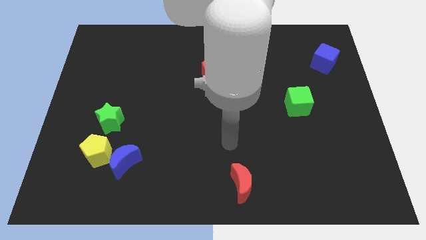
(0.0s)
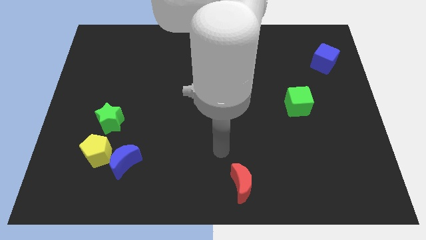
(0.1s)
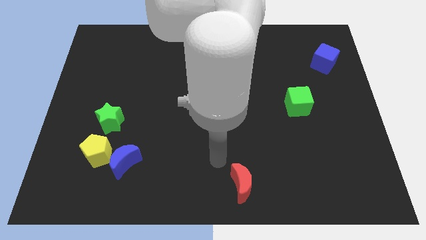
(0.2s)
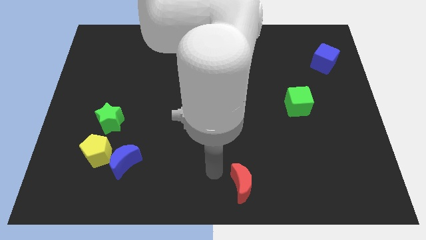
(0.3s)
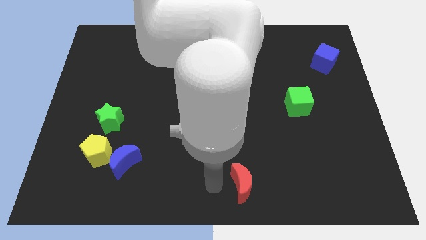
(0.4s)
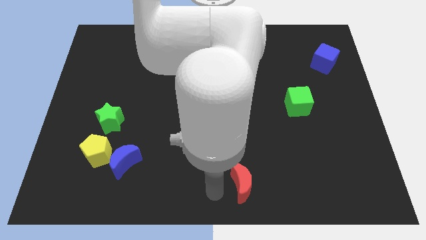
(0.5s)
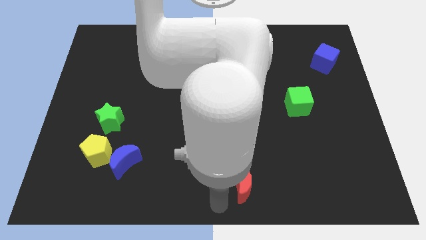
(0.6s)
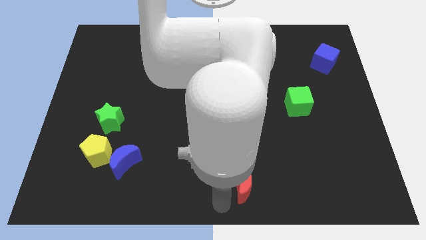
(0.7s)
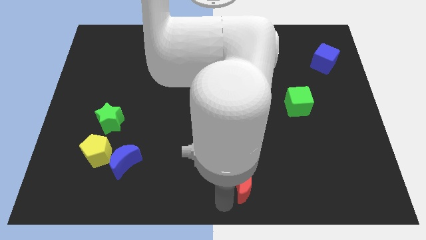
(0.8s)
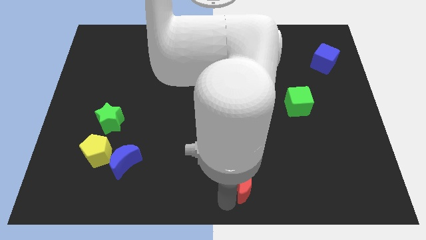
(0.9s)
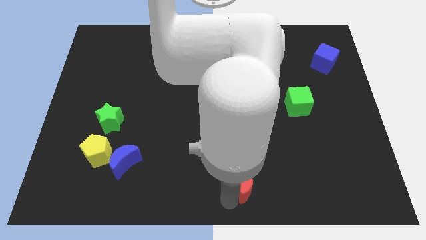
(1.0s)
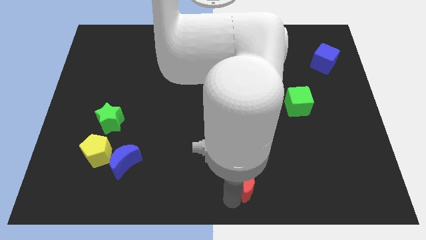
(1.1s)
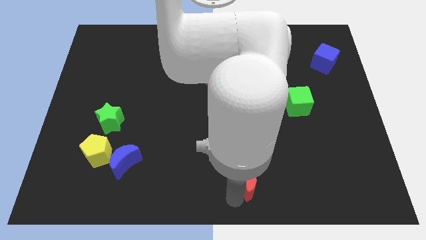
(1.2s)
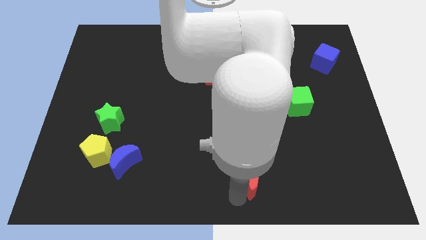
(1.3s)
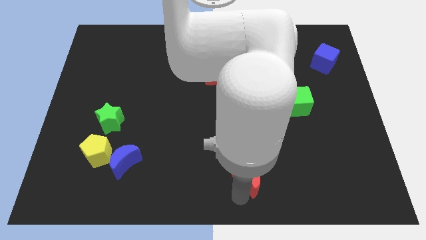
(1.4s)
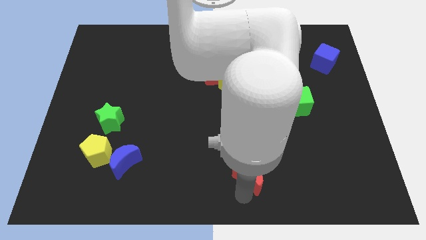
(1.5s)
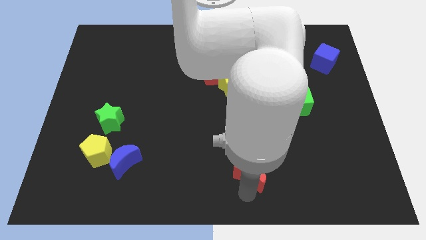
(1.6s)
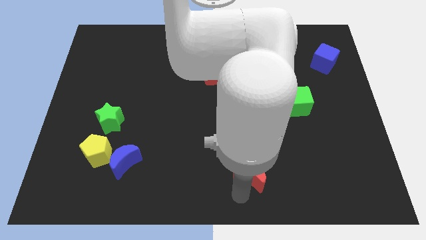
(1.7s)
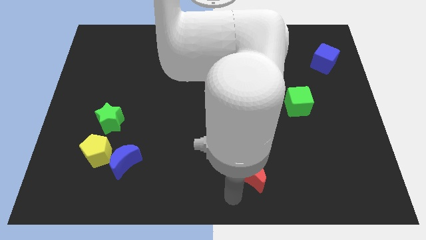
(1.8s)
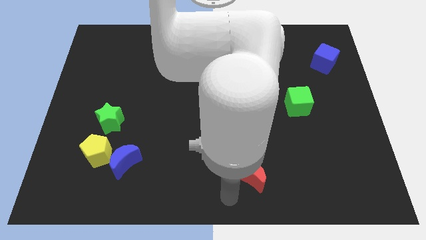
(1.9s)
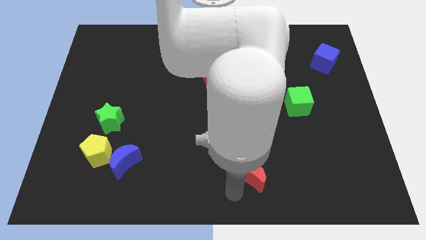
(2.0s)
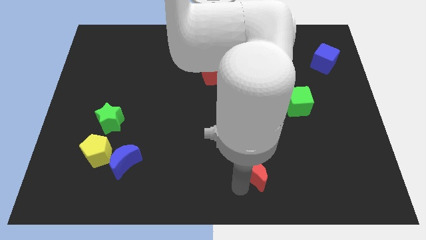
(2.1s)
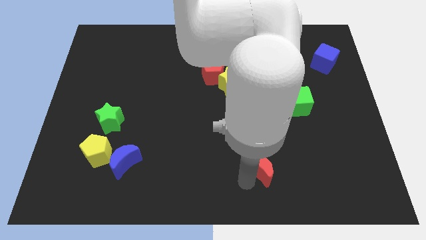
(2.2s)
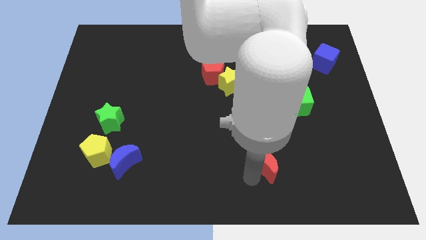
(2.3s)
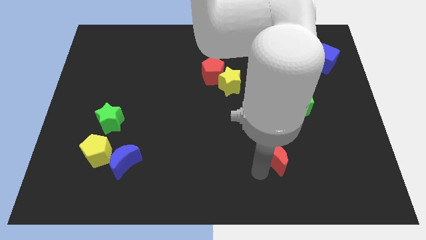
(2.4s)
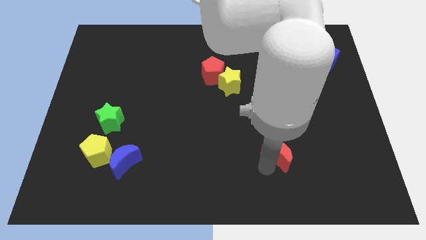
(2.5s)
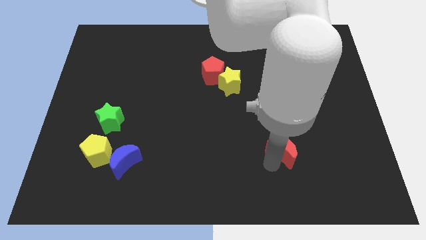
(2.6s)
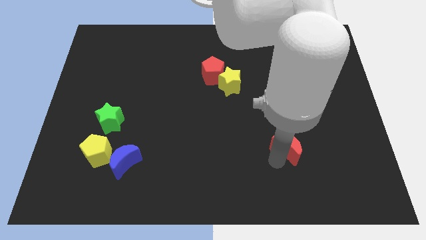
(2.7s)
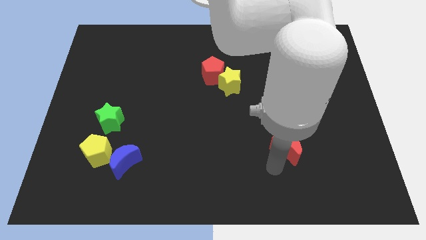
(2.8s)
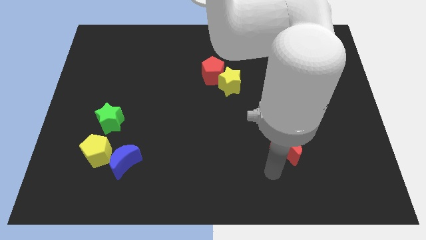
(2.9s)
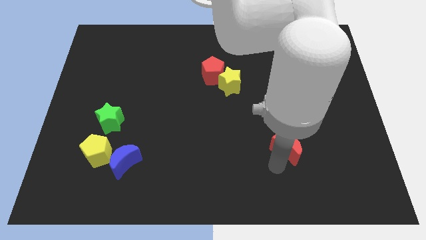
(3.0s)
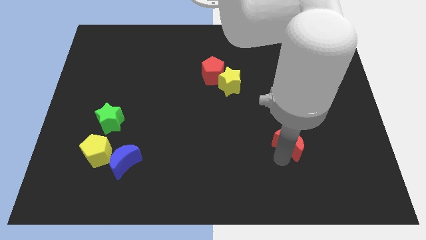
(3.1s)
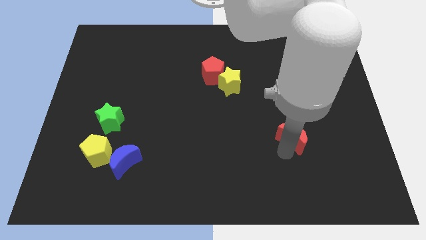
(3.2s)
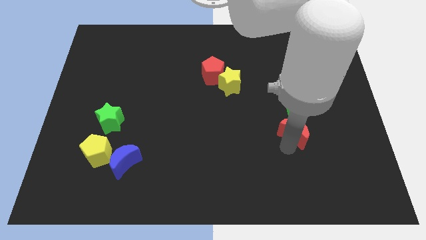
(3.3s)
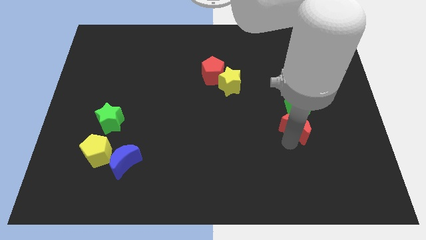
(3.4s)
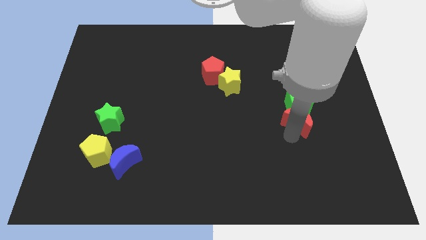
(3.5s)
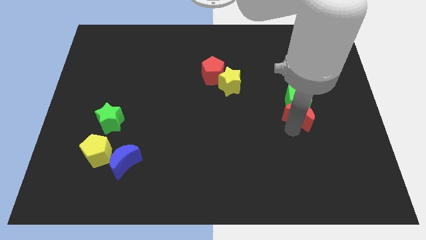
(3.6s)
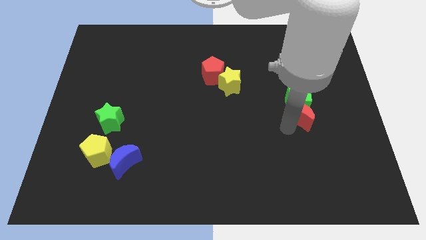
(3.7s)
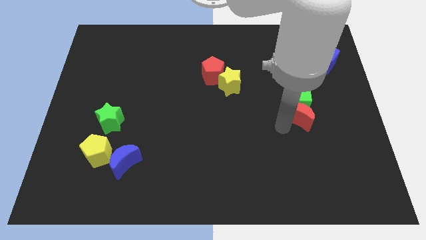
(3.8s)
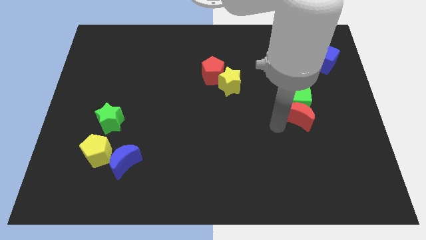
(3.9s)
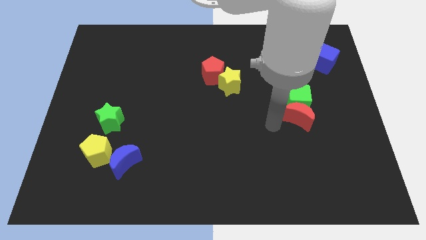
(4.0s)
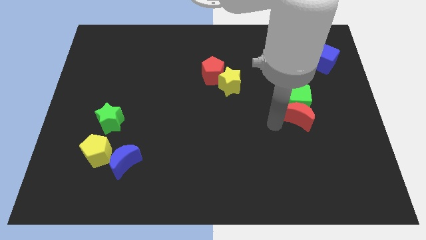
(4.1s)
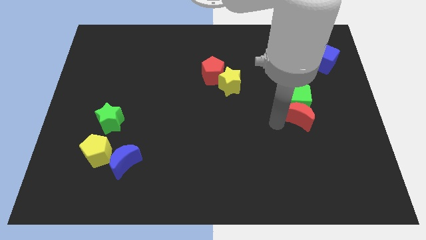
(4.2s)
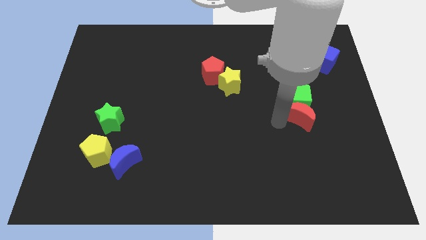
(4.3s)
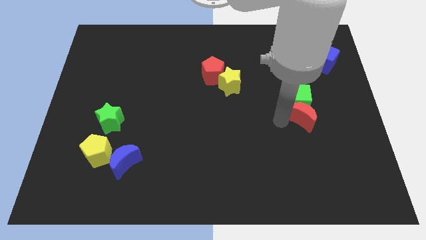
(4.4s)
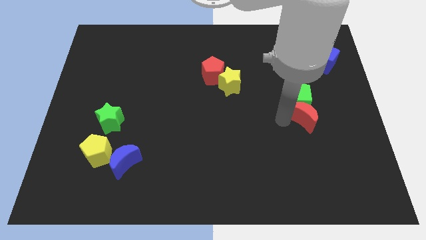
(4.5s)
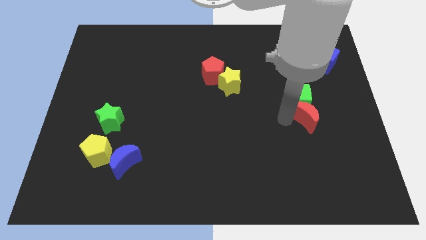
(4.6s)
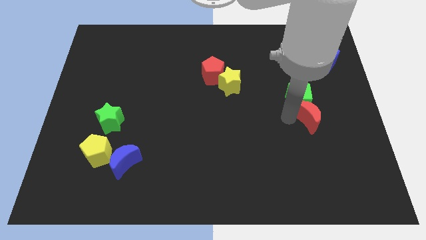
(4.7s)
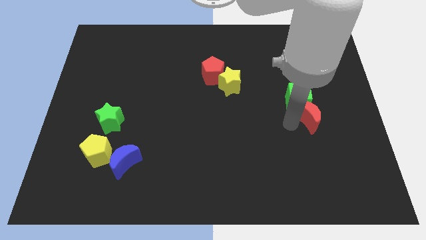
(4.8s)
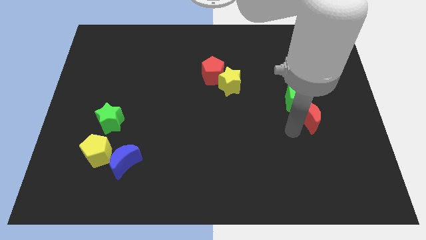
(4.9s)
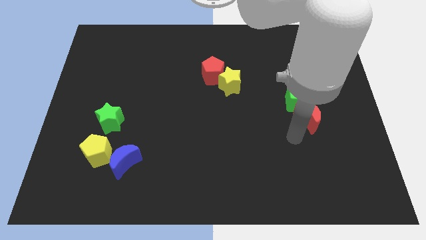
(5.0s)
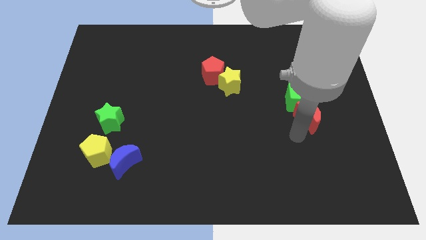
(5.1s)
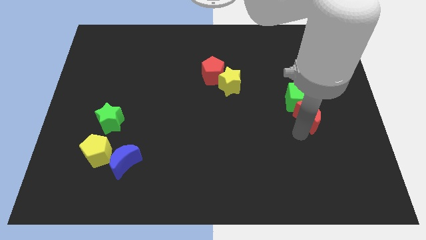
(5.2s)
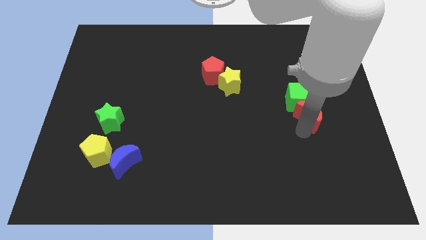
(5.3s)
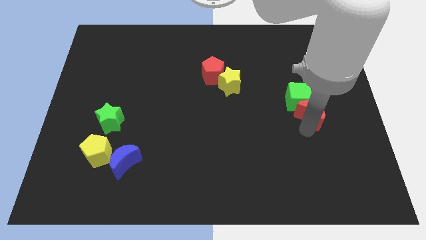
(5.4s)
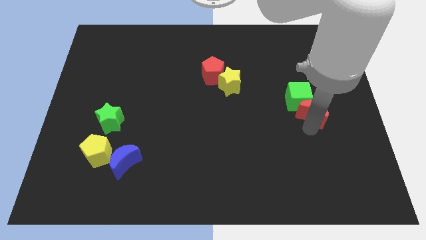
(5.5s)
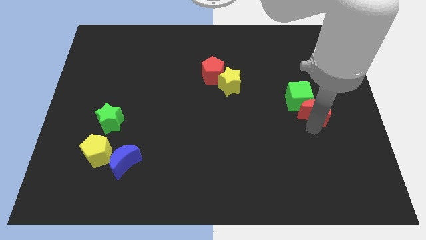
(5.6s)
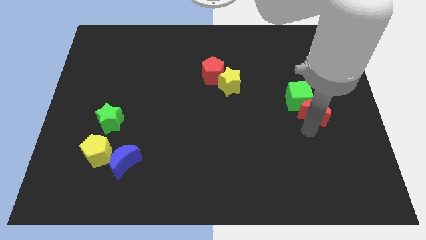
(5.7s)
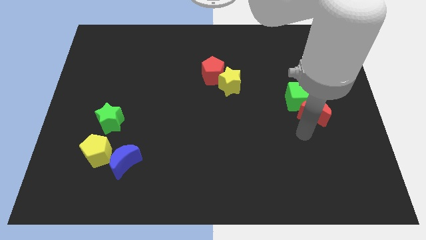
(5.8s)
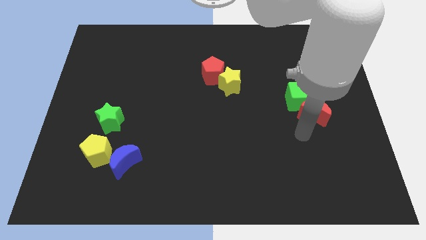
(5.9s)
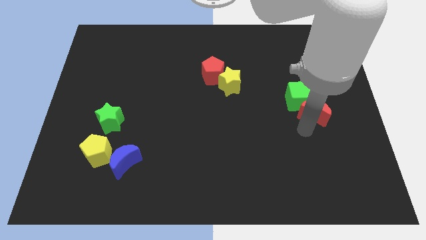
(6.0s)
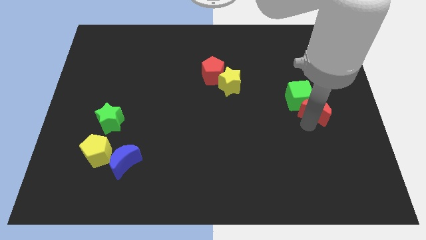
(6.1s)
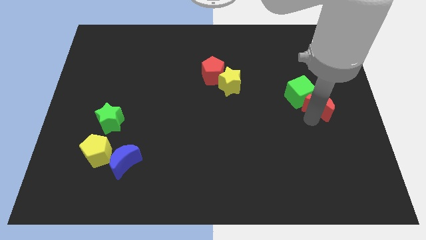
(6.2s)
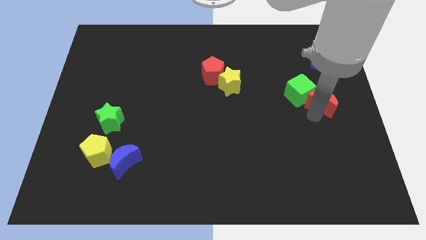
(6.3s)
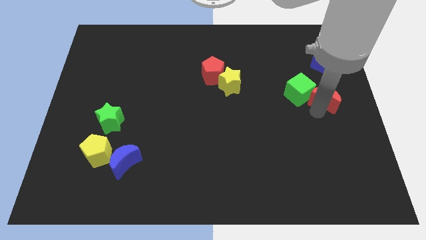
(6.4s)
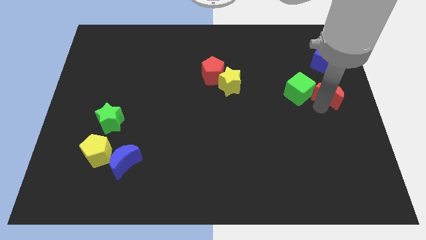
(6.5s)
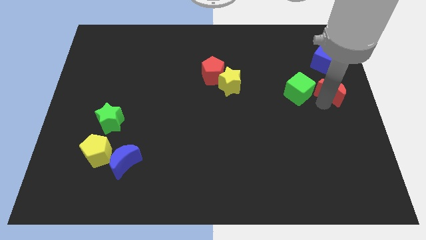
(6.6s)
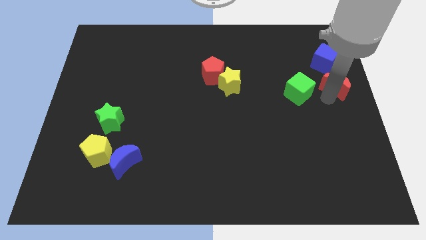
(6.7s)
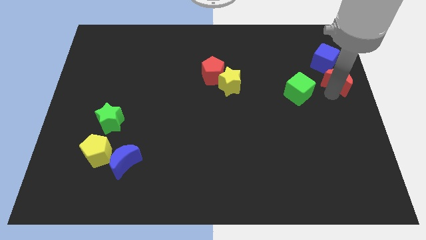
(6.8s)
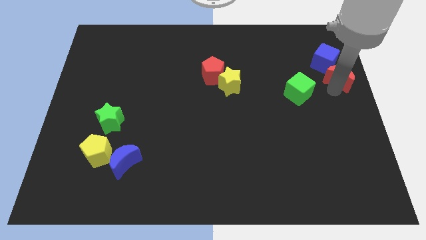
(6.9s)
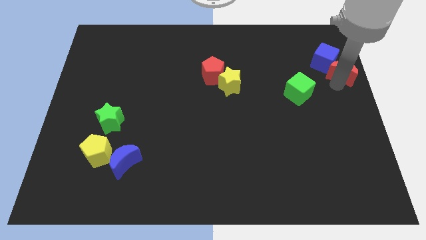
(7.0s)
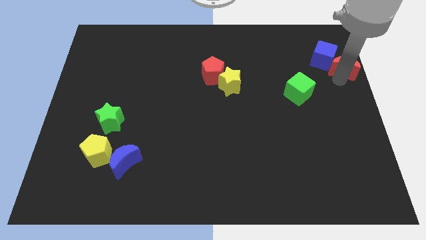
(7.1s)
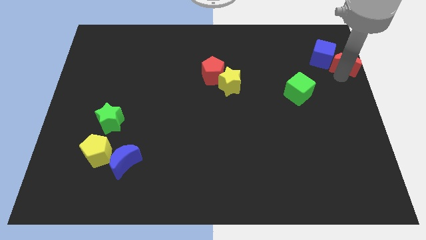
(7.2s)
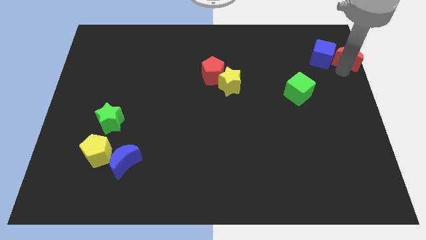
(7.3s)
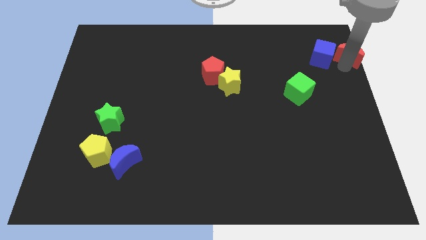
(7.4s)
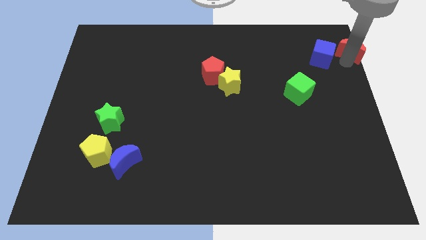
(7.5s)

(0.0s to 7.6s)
slide the red moon to the top right of the board
